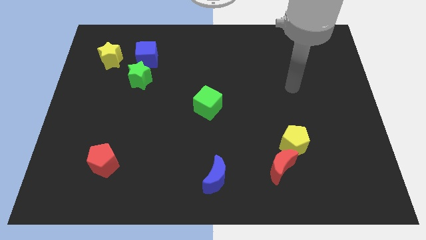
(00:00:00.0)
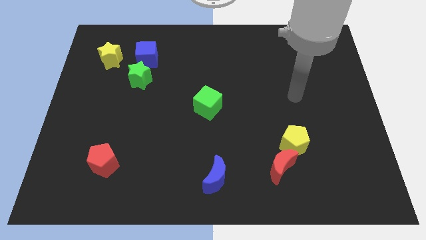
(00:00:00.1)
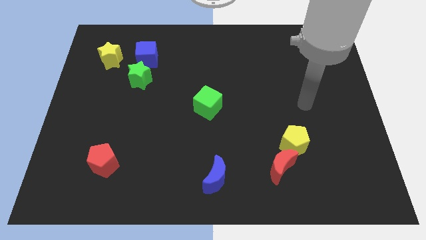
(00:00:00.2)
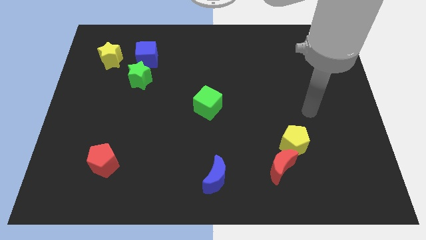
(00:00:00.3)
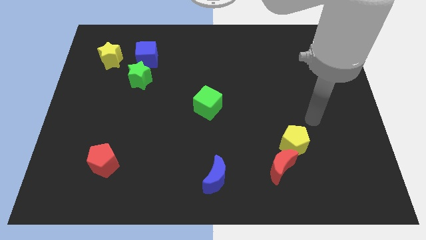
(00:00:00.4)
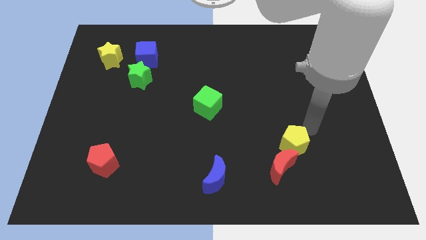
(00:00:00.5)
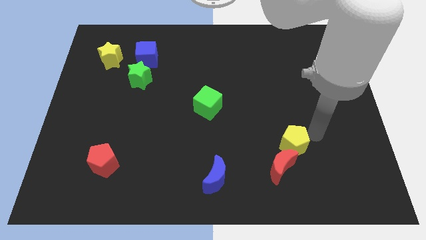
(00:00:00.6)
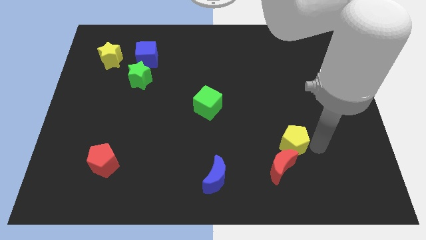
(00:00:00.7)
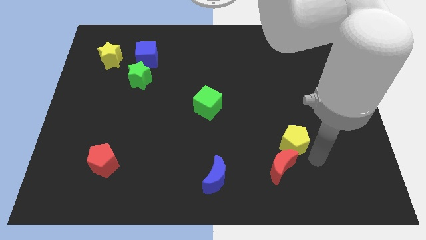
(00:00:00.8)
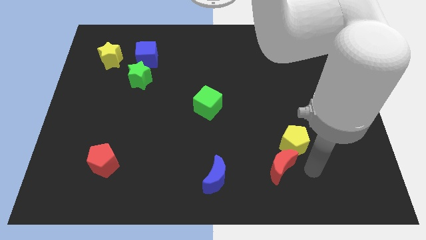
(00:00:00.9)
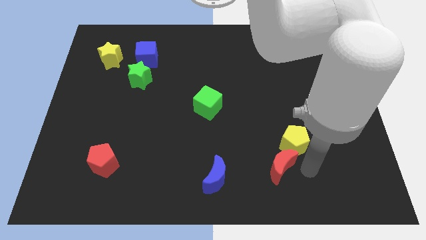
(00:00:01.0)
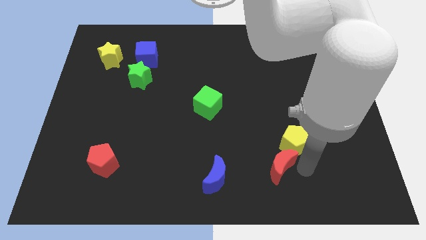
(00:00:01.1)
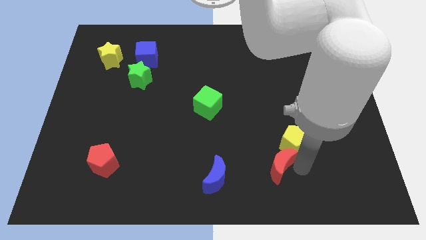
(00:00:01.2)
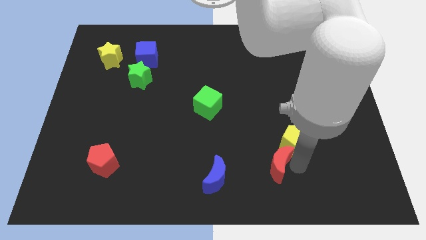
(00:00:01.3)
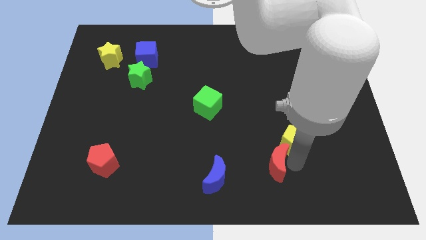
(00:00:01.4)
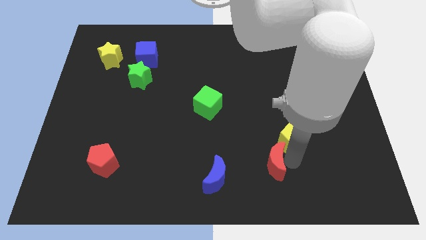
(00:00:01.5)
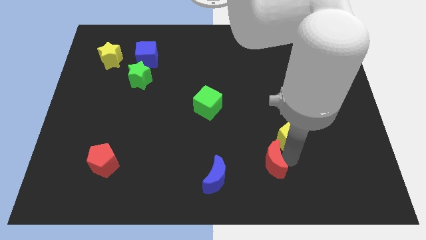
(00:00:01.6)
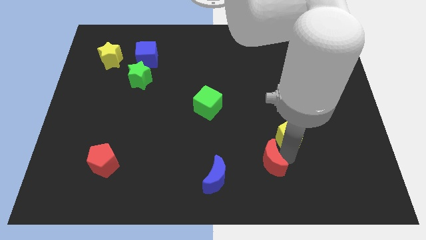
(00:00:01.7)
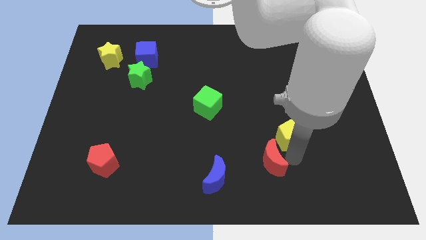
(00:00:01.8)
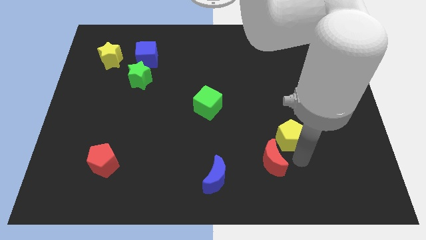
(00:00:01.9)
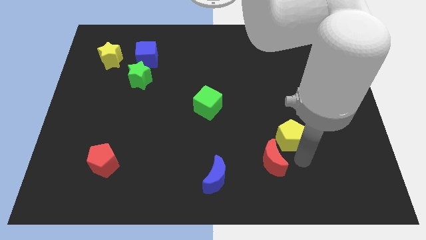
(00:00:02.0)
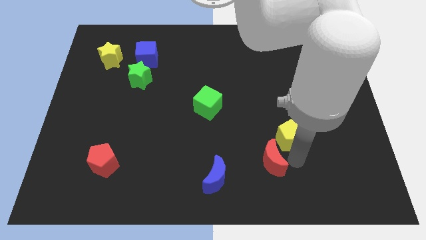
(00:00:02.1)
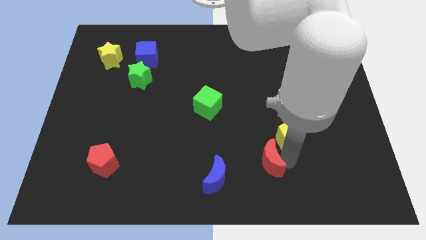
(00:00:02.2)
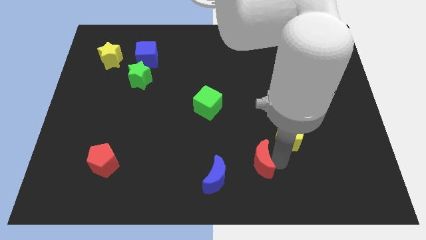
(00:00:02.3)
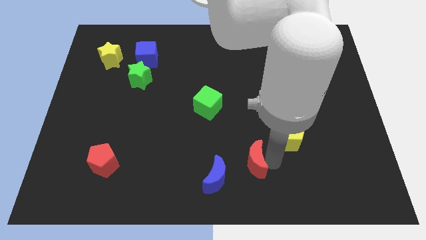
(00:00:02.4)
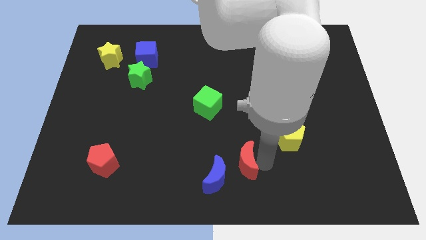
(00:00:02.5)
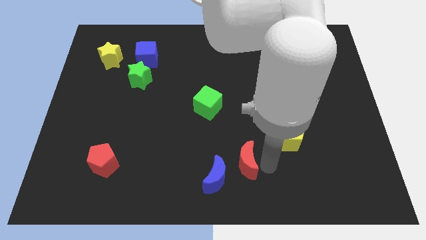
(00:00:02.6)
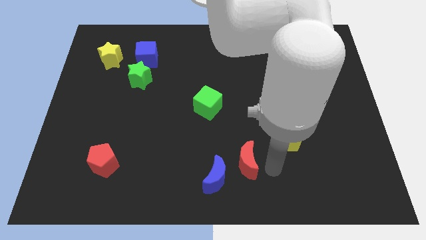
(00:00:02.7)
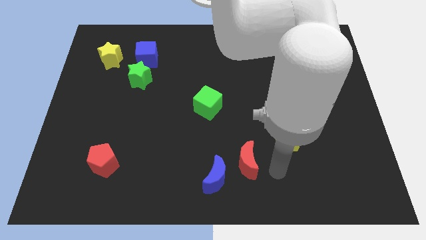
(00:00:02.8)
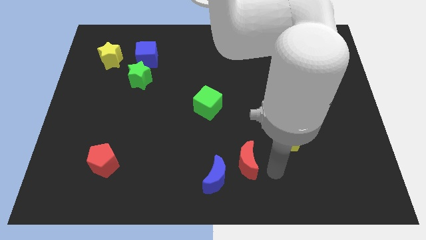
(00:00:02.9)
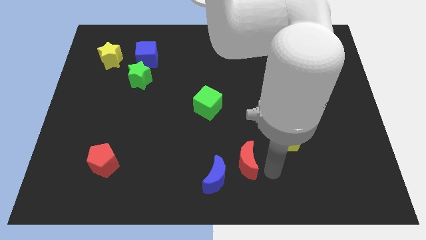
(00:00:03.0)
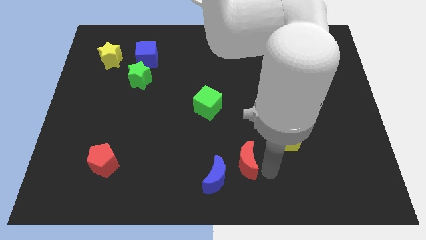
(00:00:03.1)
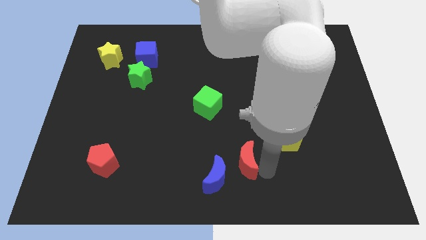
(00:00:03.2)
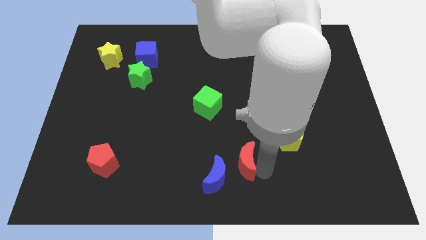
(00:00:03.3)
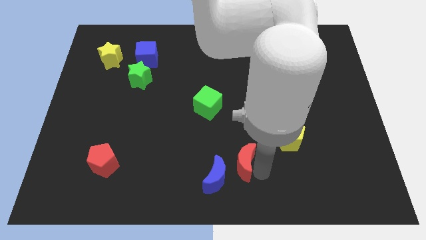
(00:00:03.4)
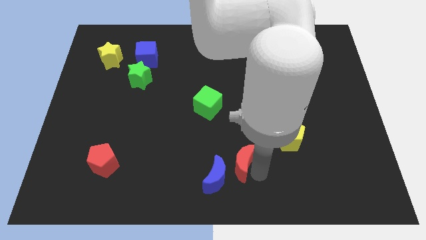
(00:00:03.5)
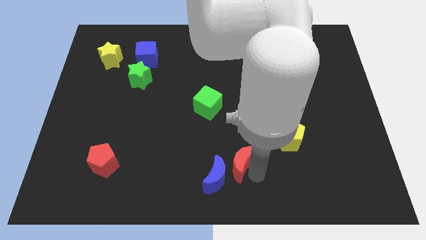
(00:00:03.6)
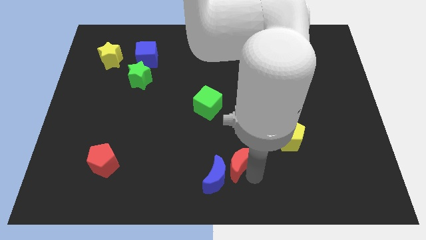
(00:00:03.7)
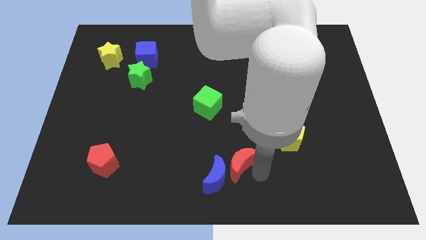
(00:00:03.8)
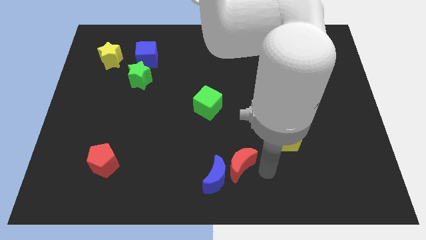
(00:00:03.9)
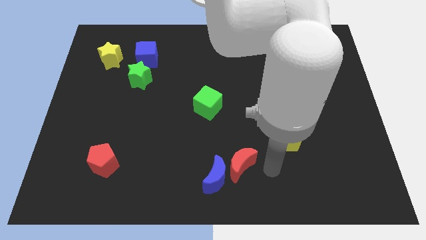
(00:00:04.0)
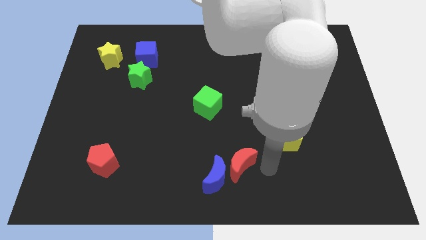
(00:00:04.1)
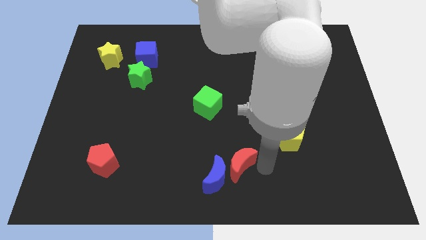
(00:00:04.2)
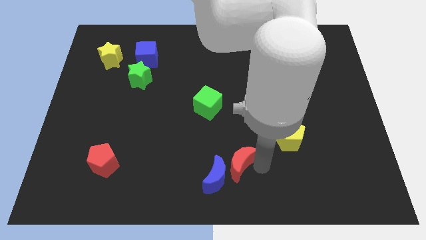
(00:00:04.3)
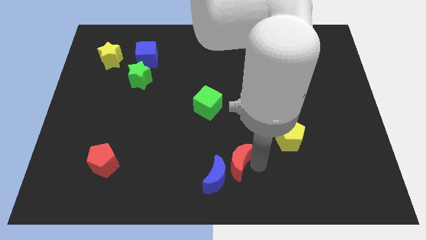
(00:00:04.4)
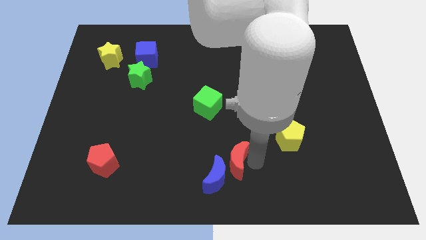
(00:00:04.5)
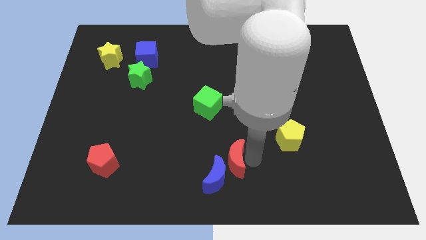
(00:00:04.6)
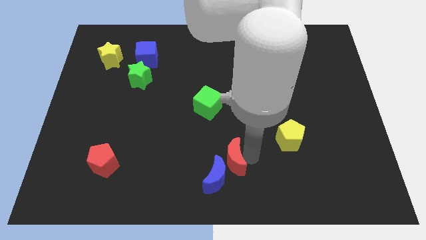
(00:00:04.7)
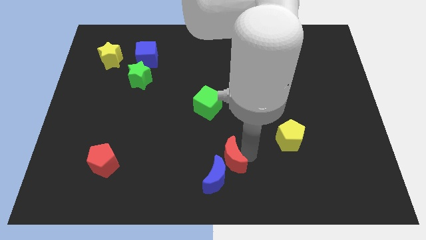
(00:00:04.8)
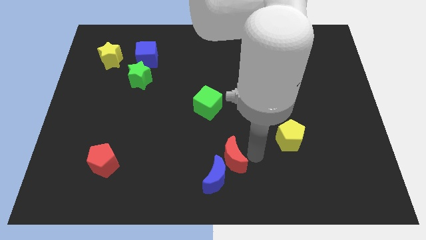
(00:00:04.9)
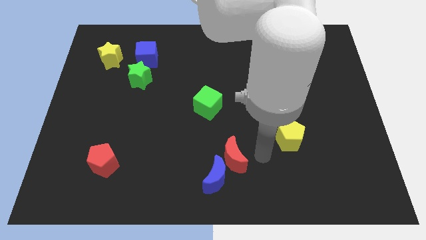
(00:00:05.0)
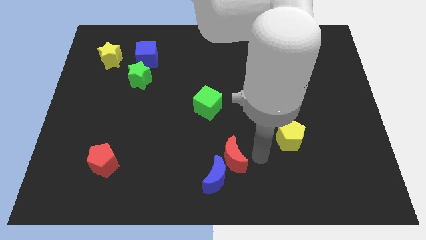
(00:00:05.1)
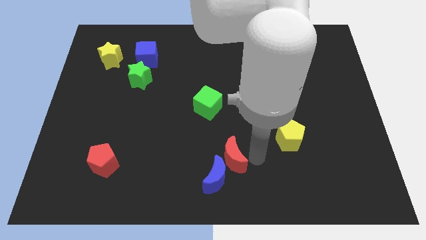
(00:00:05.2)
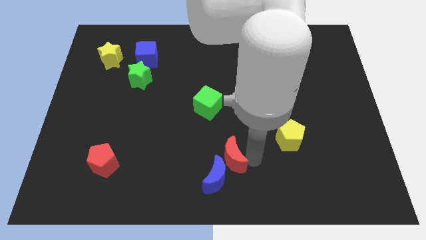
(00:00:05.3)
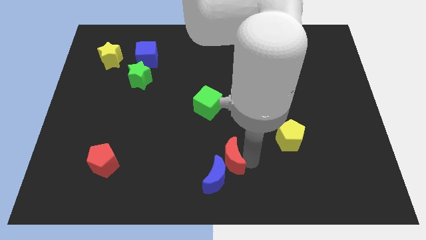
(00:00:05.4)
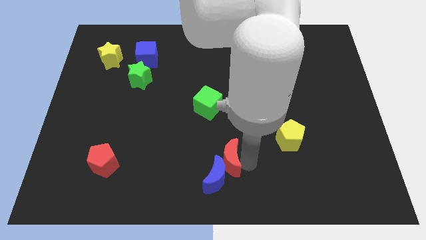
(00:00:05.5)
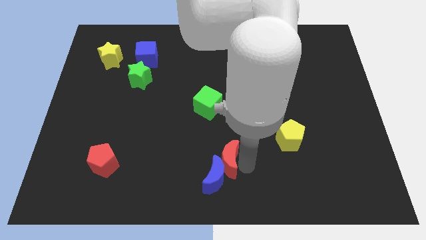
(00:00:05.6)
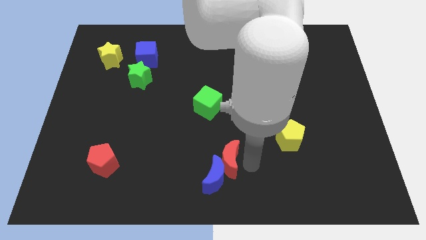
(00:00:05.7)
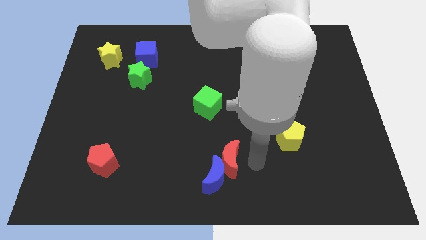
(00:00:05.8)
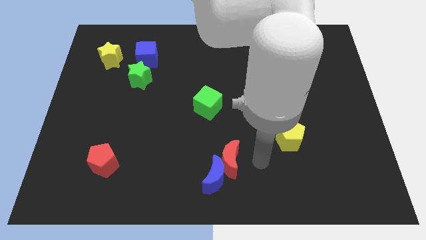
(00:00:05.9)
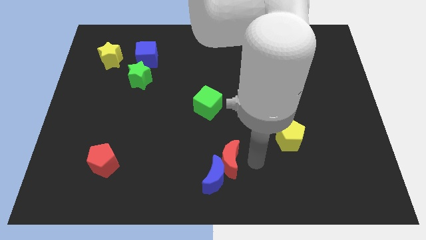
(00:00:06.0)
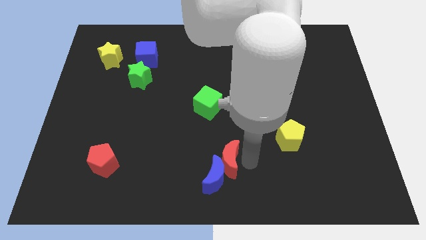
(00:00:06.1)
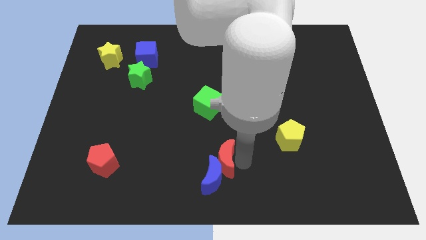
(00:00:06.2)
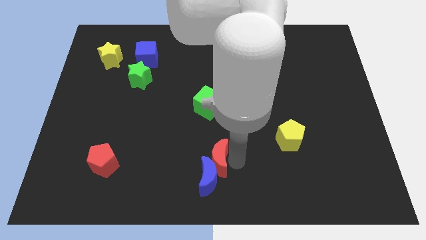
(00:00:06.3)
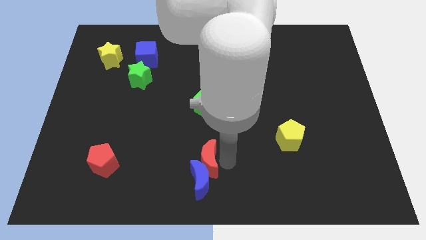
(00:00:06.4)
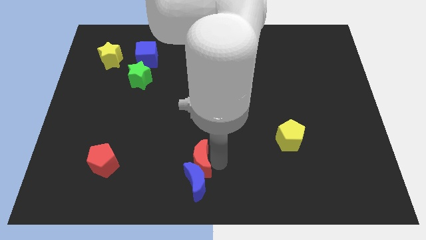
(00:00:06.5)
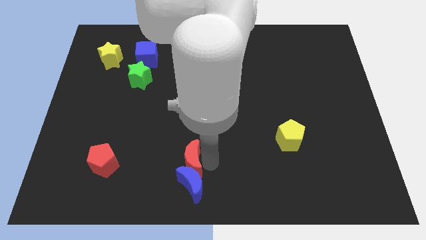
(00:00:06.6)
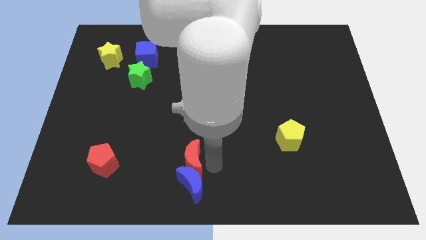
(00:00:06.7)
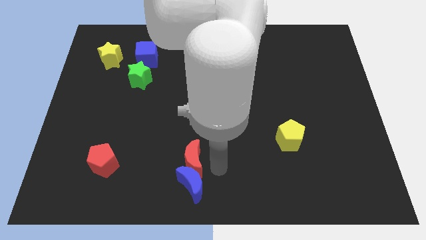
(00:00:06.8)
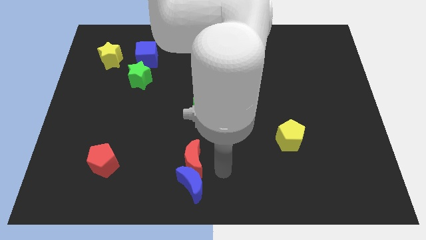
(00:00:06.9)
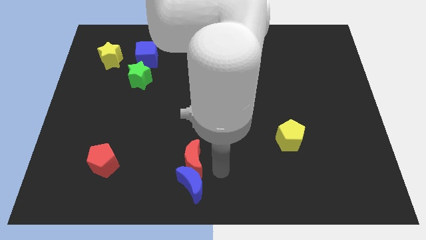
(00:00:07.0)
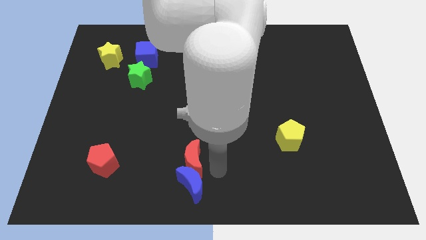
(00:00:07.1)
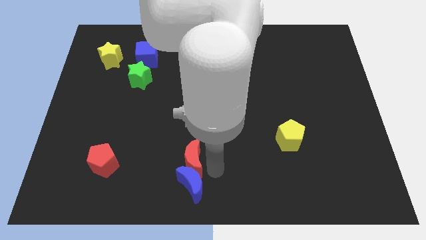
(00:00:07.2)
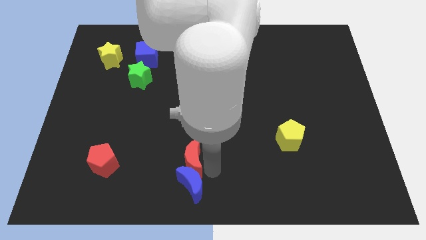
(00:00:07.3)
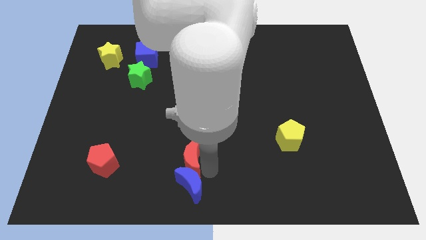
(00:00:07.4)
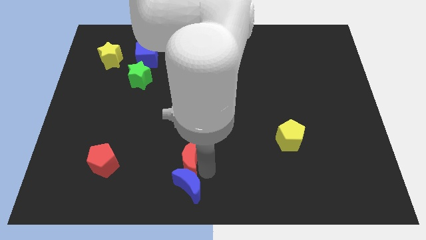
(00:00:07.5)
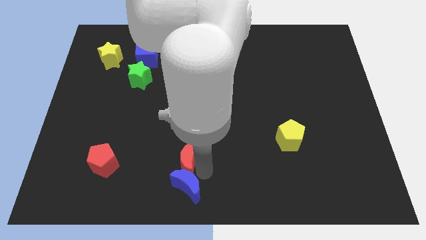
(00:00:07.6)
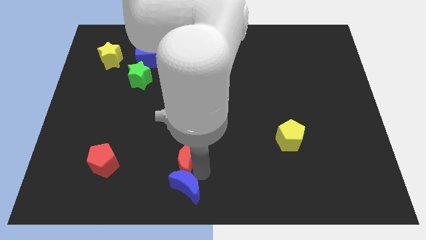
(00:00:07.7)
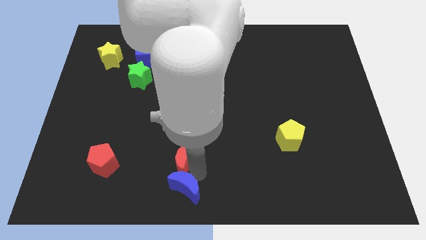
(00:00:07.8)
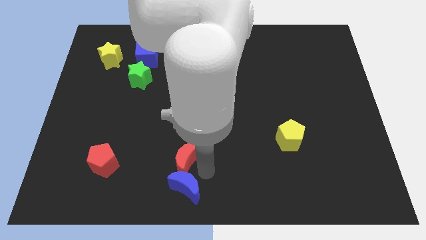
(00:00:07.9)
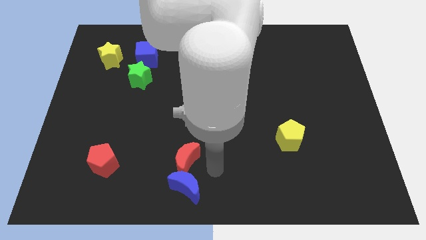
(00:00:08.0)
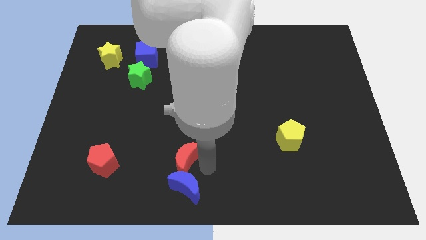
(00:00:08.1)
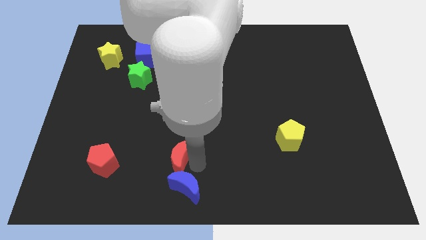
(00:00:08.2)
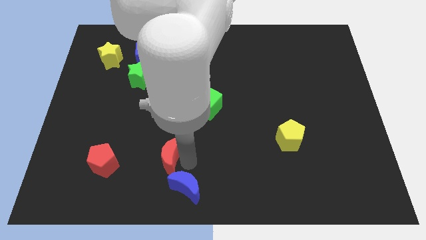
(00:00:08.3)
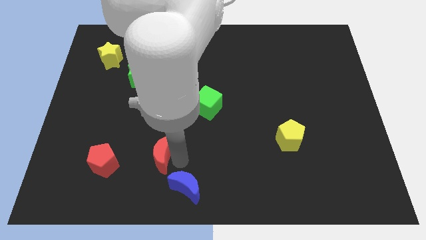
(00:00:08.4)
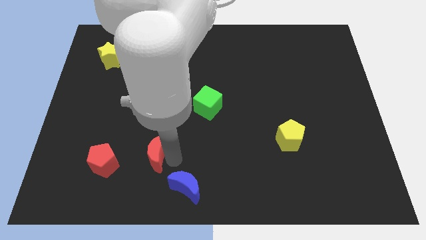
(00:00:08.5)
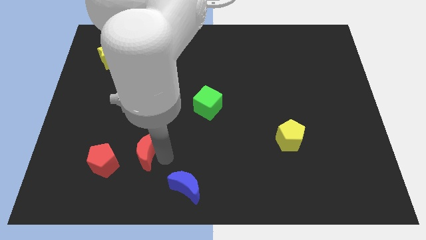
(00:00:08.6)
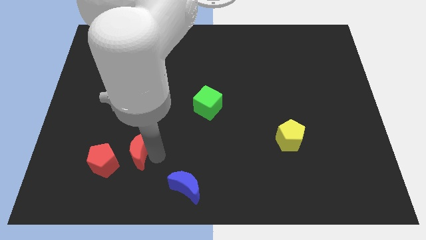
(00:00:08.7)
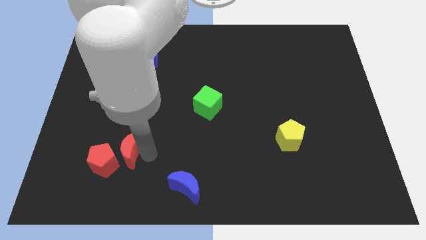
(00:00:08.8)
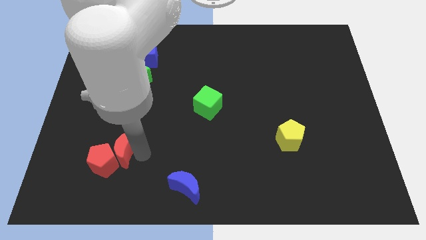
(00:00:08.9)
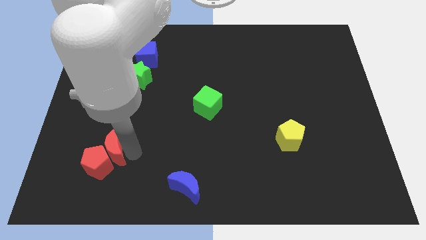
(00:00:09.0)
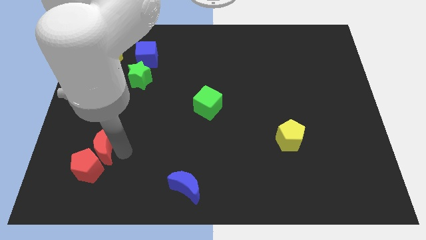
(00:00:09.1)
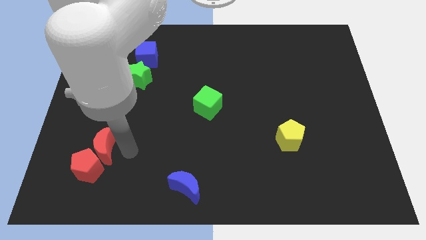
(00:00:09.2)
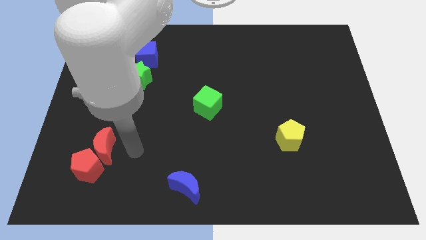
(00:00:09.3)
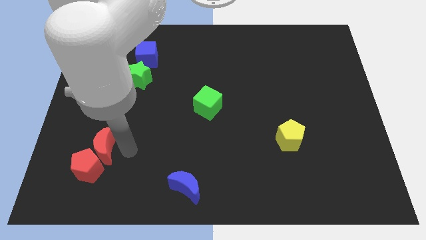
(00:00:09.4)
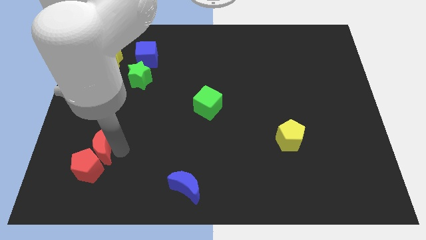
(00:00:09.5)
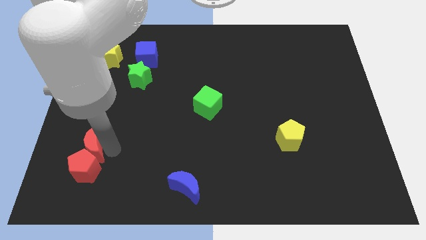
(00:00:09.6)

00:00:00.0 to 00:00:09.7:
push the red moon to the top left of the red pentagon
